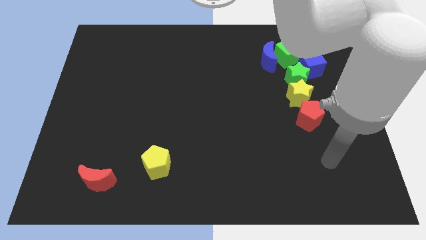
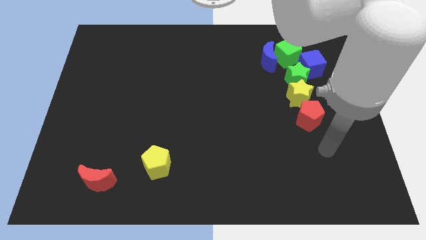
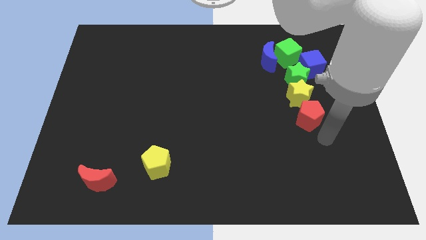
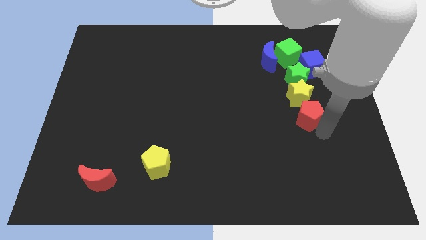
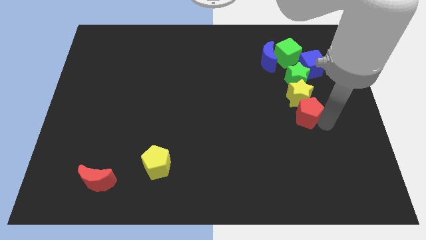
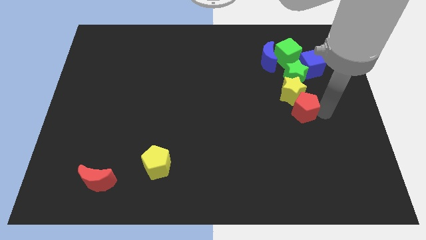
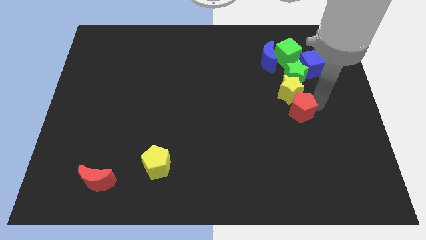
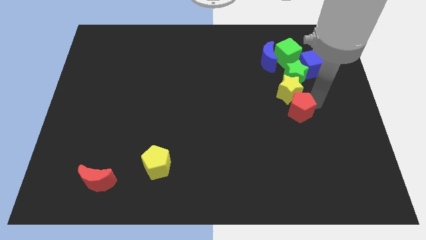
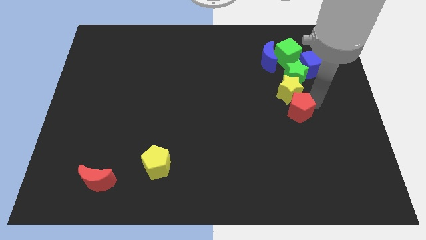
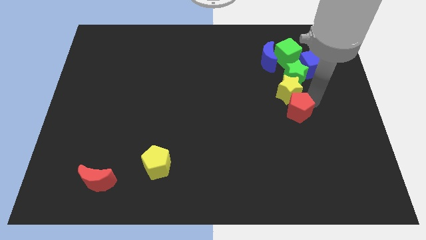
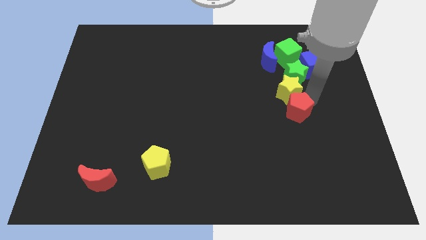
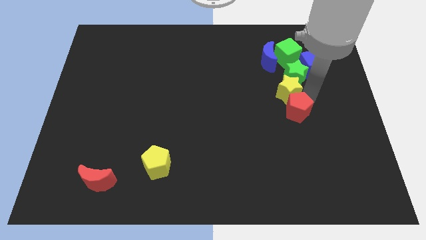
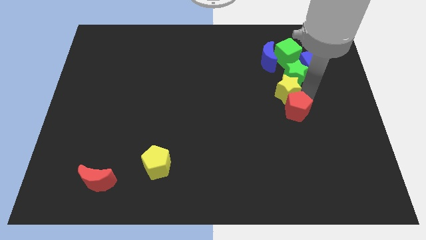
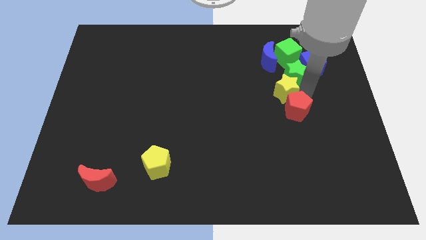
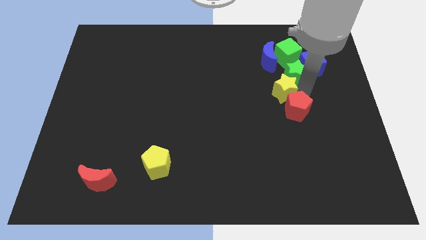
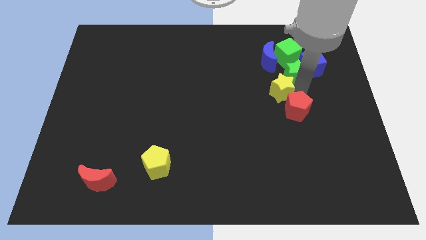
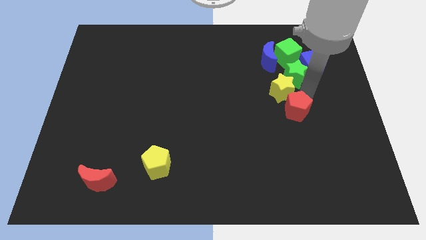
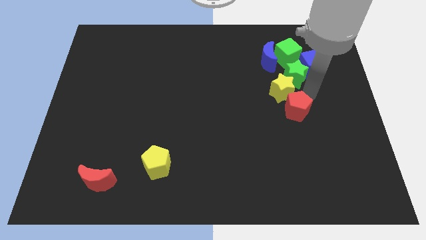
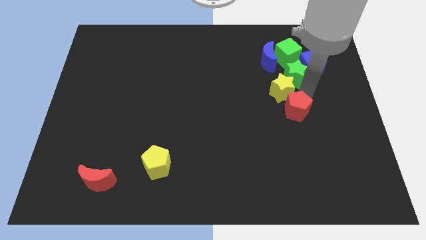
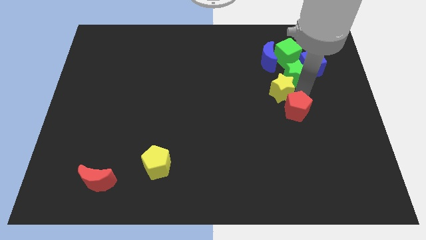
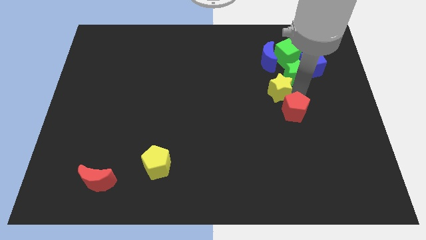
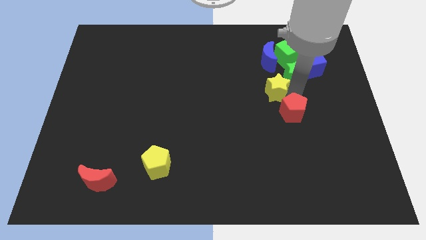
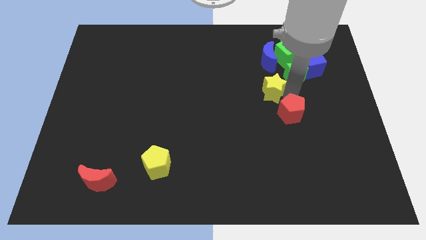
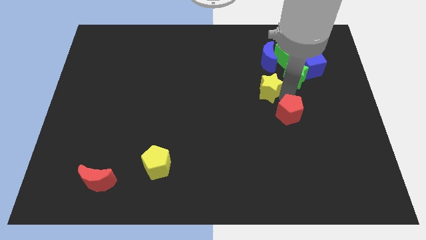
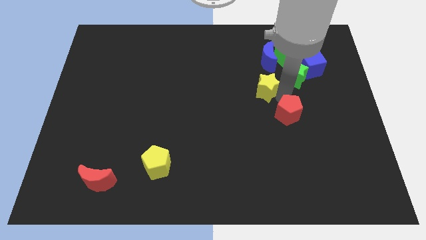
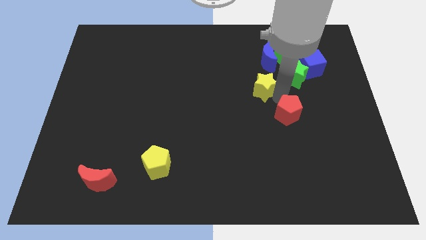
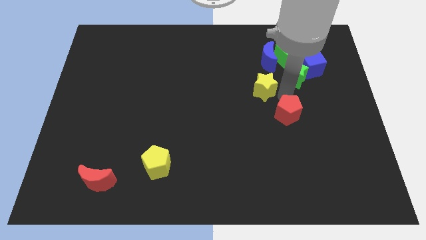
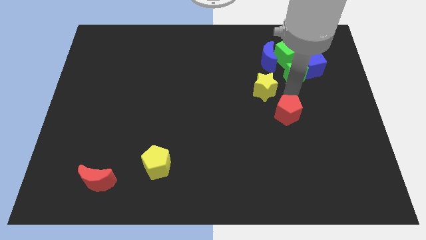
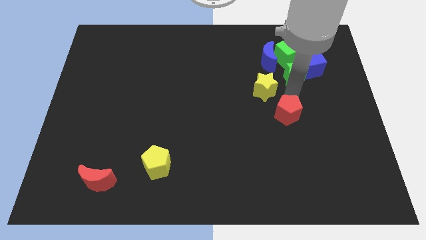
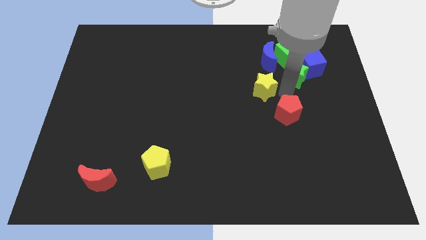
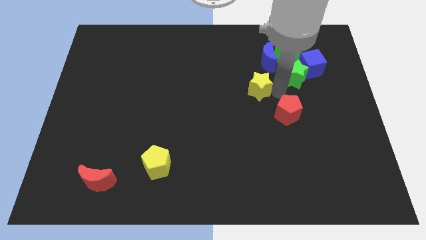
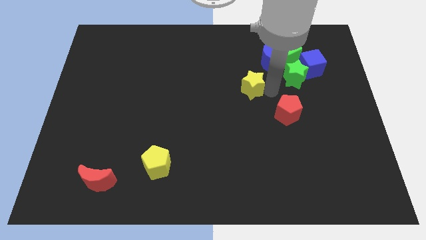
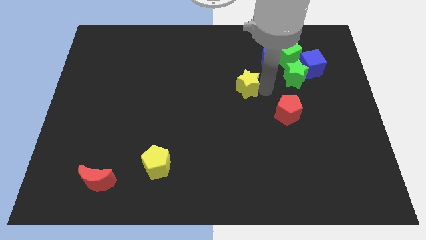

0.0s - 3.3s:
separate the yellow star from the green star and red pentagon

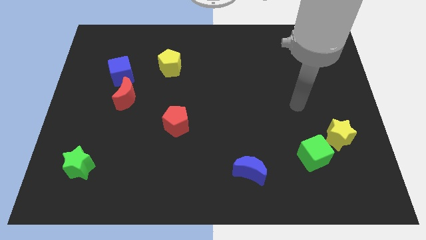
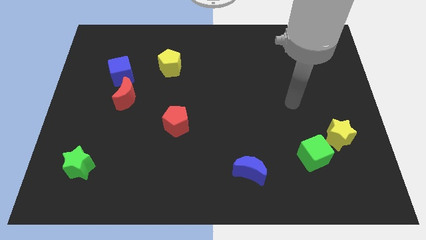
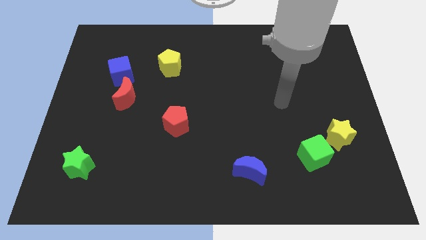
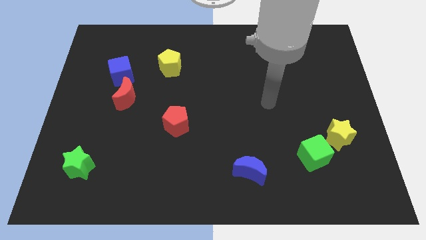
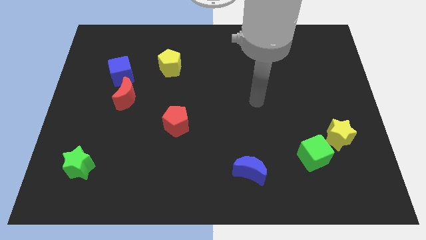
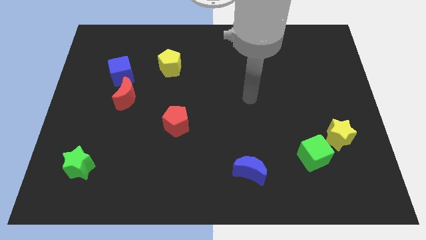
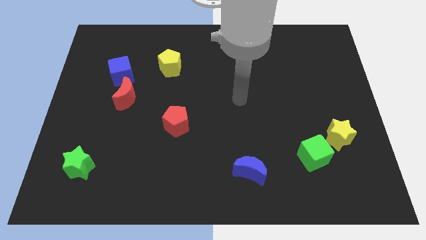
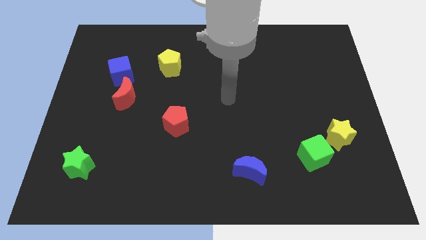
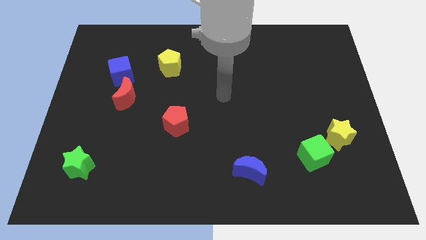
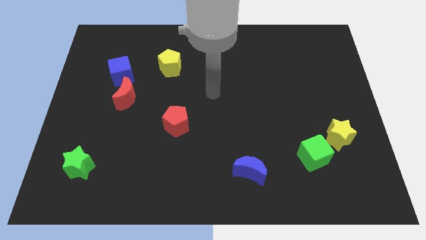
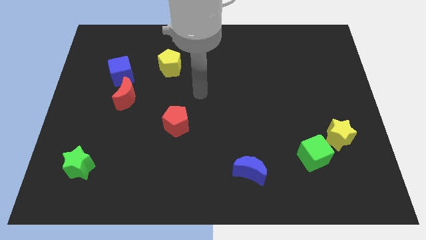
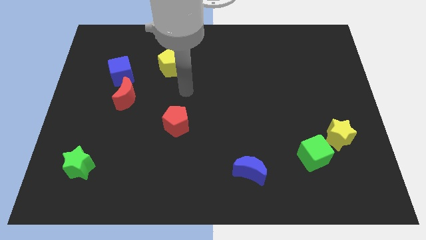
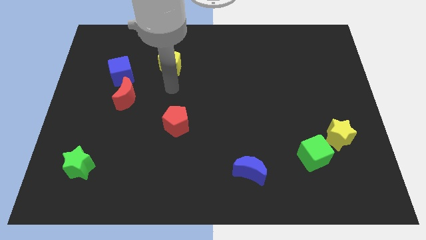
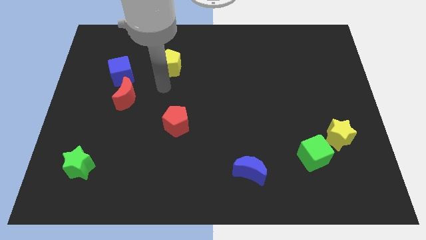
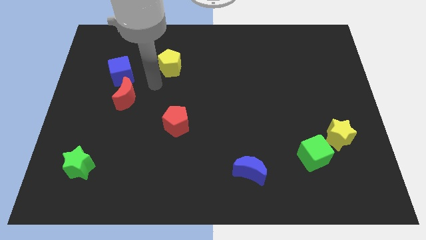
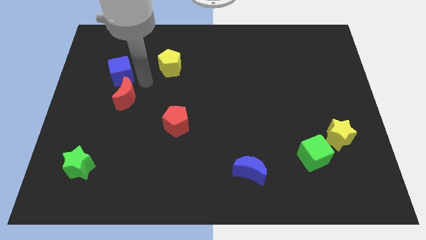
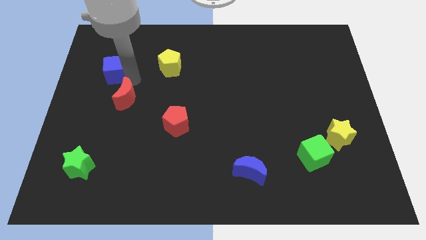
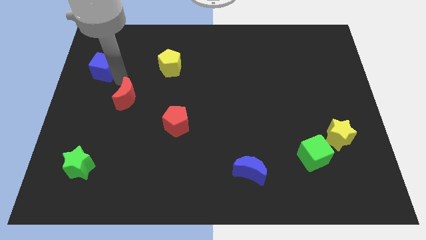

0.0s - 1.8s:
pull the red moon apart from the blue cube

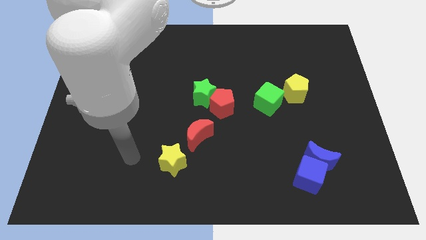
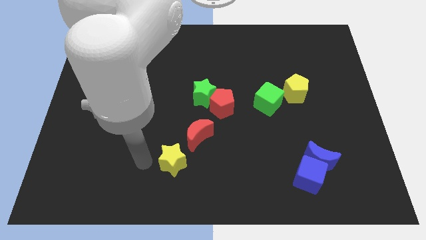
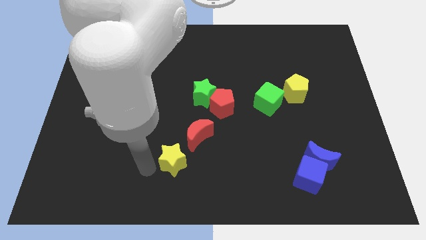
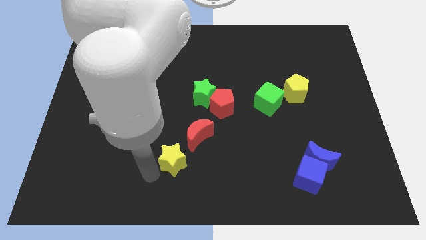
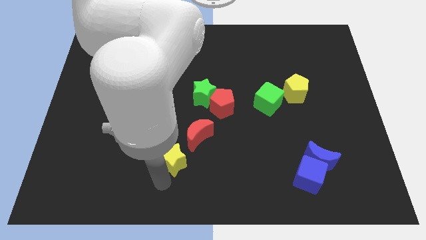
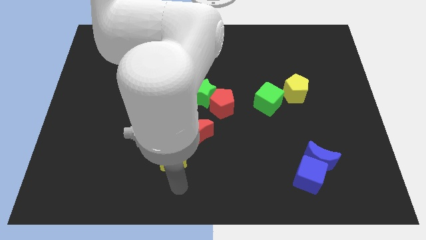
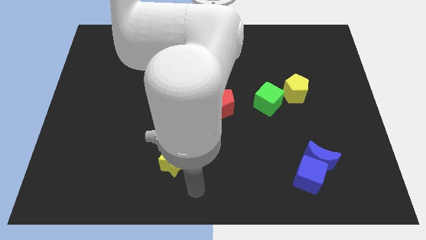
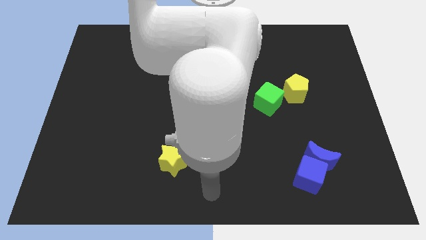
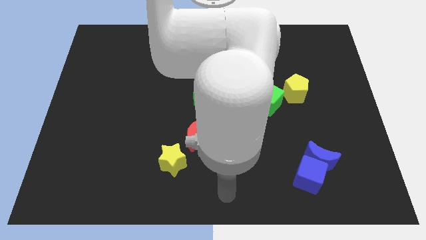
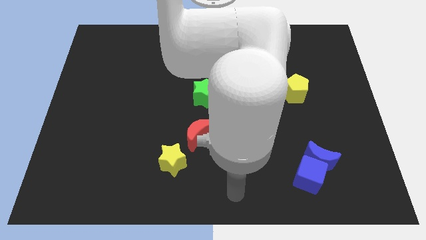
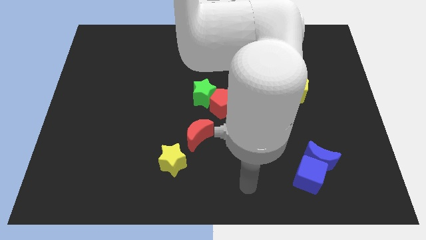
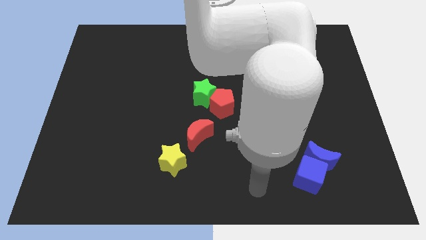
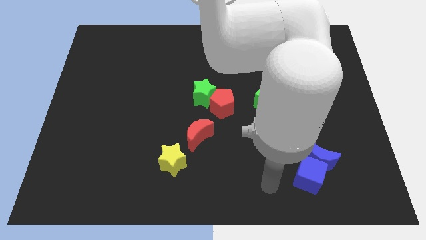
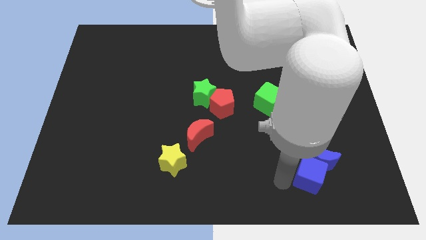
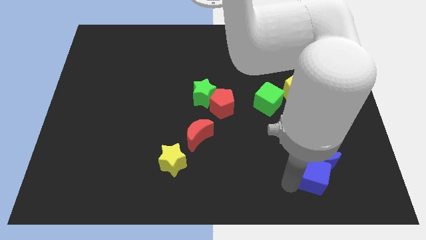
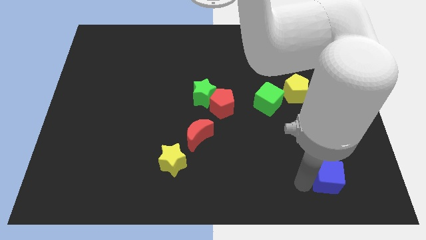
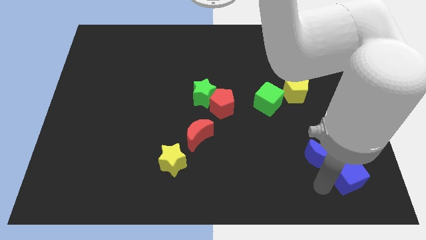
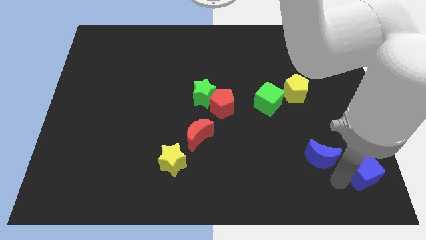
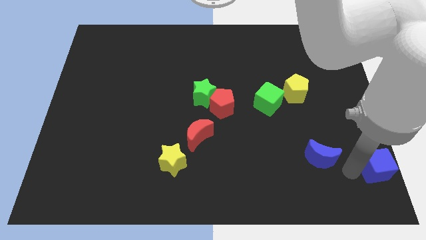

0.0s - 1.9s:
move the blue moon away from the blue cube

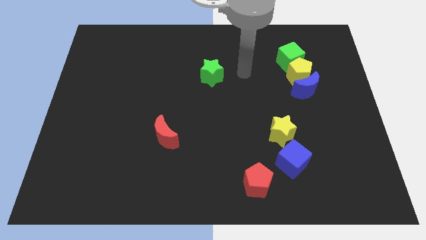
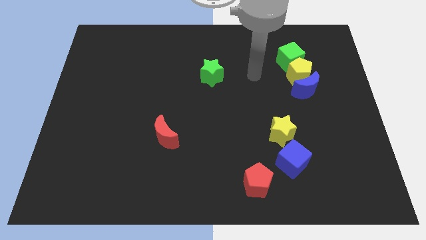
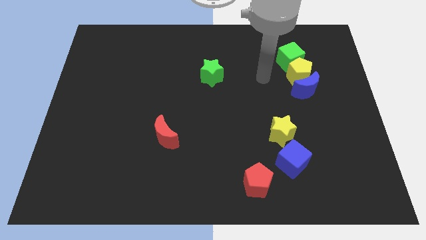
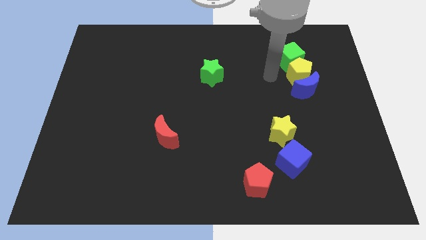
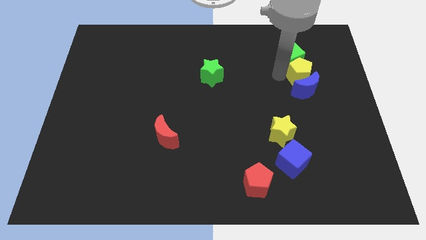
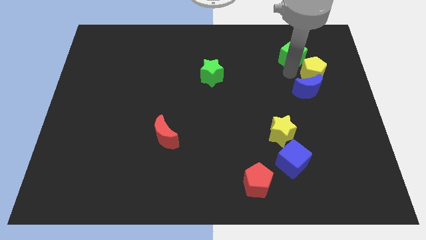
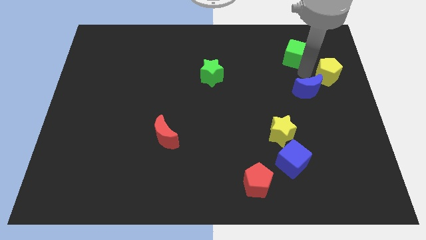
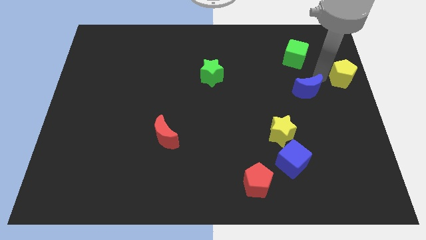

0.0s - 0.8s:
move the blue moon away from the yellow pentagon

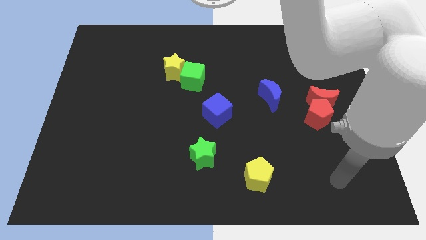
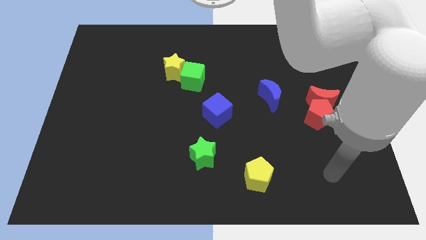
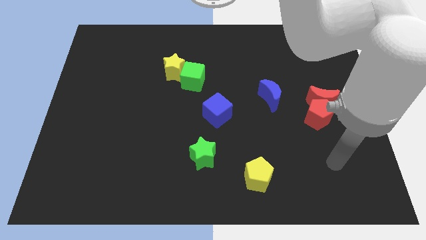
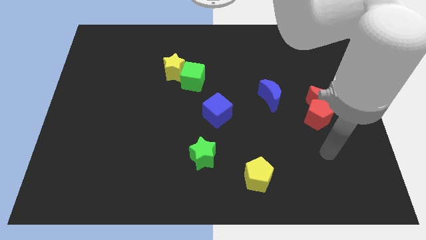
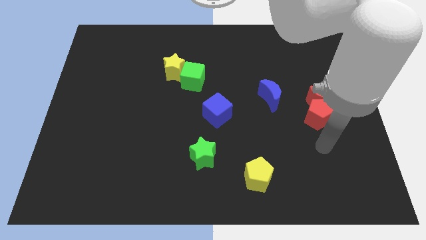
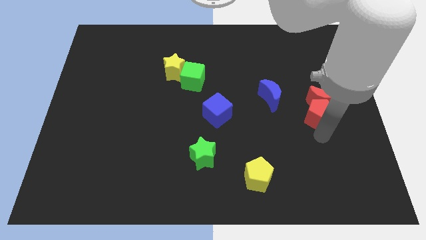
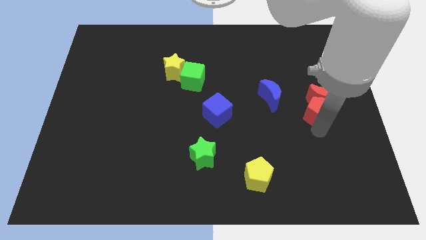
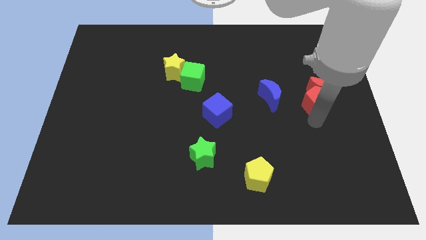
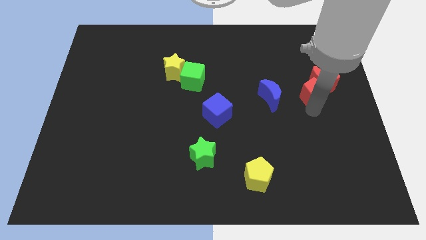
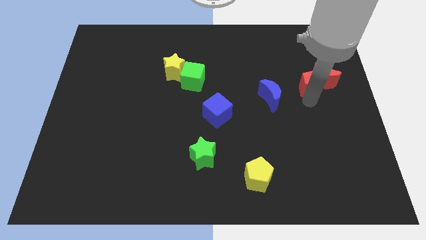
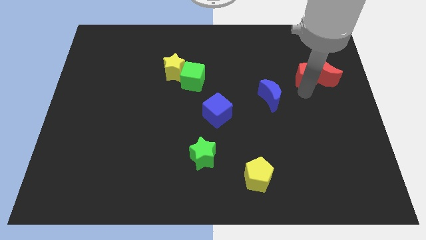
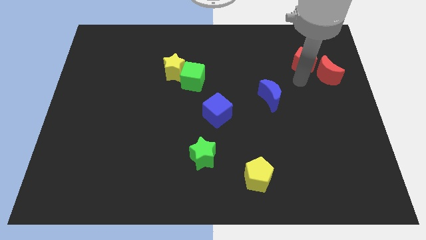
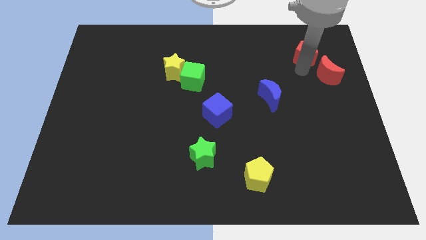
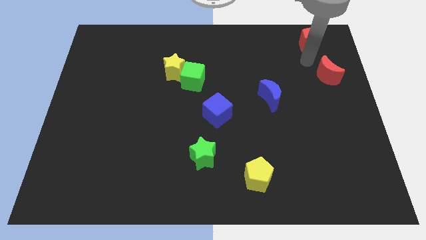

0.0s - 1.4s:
pull the red moon apart from the red pentagon
